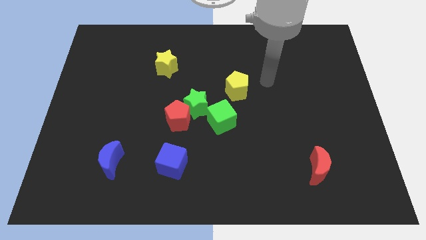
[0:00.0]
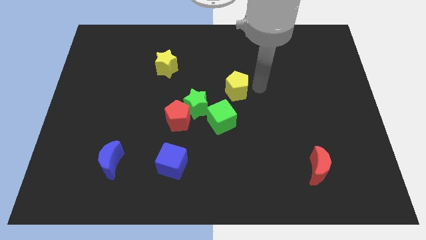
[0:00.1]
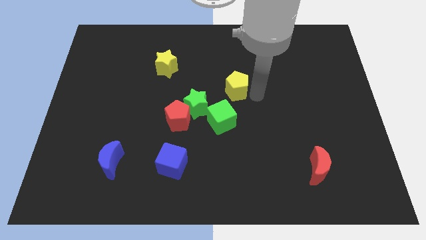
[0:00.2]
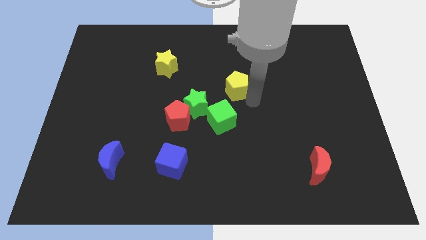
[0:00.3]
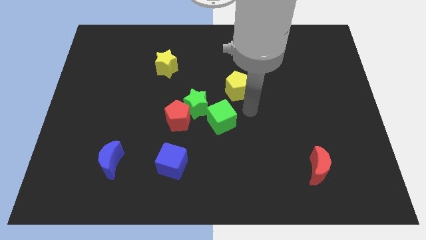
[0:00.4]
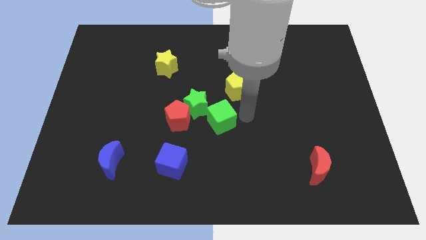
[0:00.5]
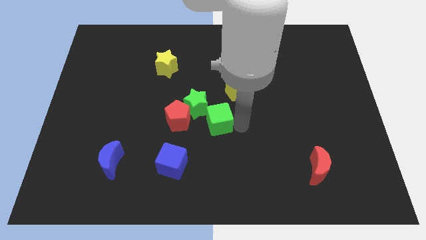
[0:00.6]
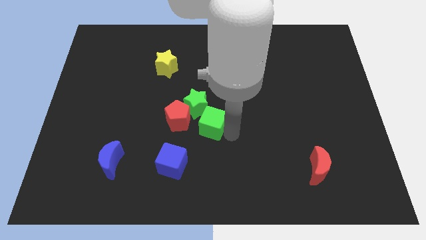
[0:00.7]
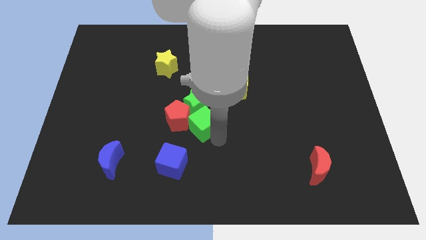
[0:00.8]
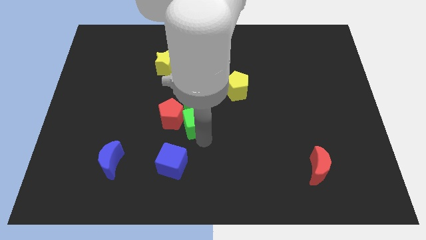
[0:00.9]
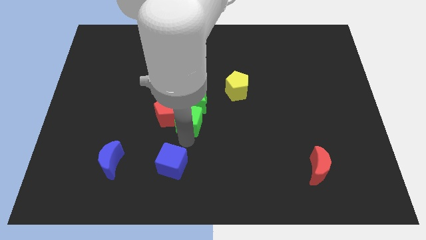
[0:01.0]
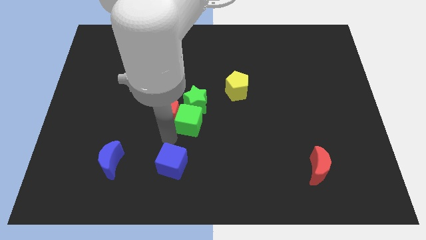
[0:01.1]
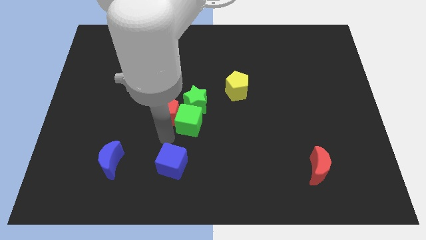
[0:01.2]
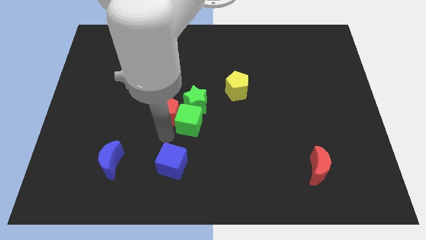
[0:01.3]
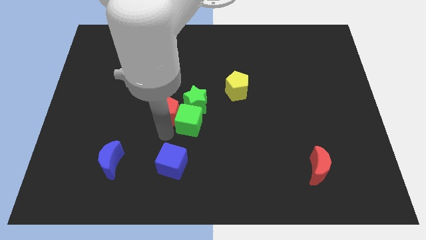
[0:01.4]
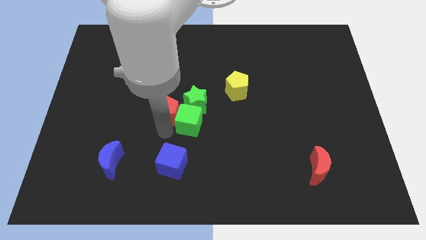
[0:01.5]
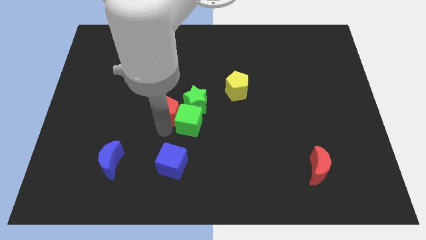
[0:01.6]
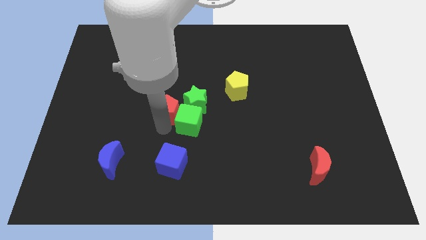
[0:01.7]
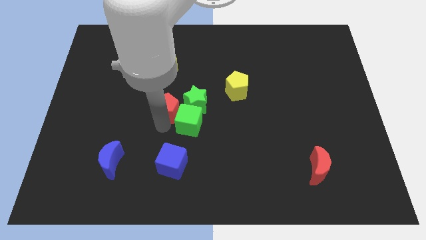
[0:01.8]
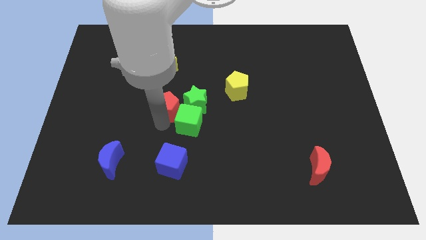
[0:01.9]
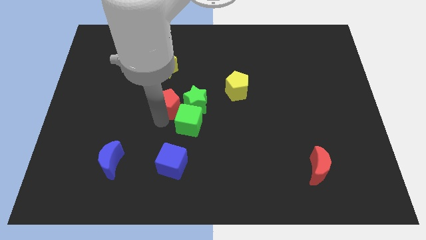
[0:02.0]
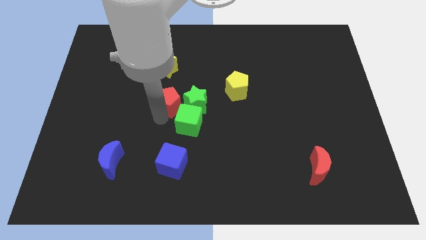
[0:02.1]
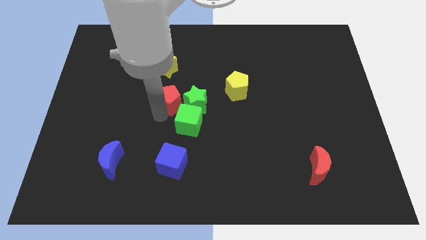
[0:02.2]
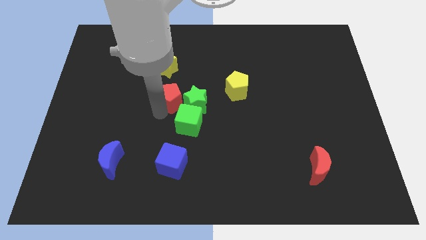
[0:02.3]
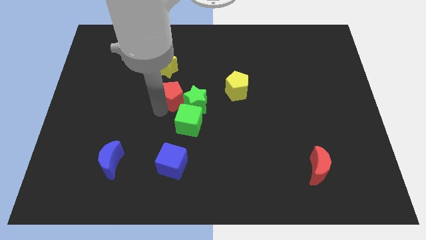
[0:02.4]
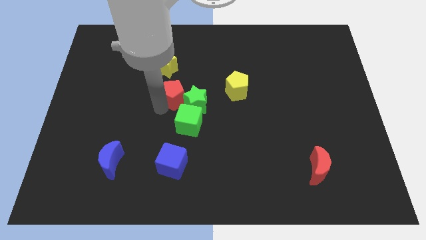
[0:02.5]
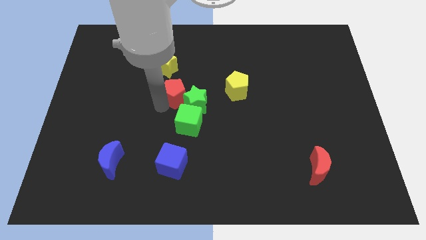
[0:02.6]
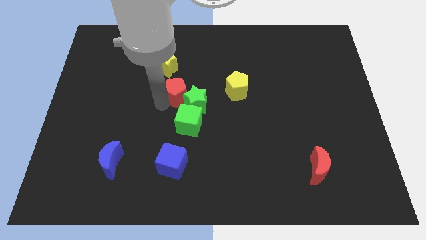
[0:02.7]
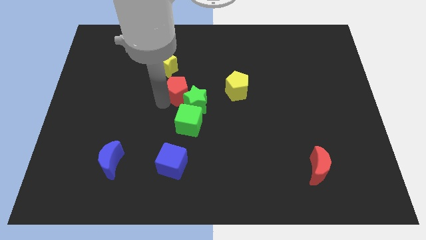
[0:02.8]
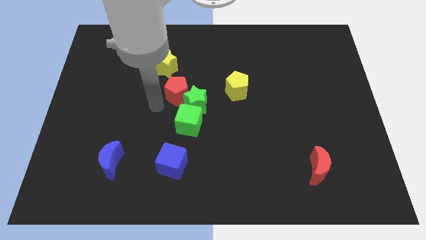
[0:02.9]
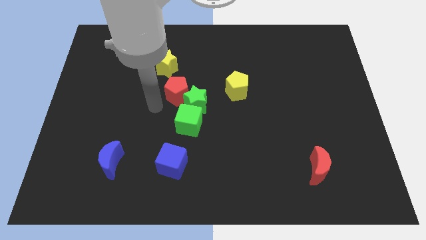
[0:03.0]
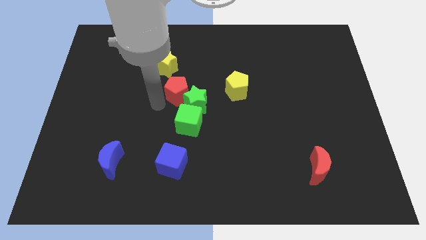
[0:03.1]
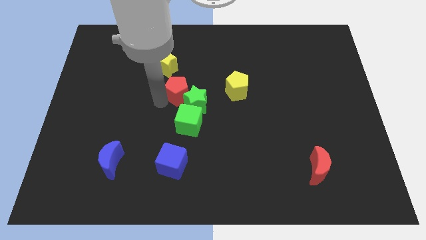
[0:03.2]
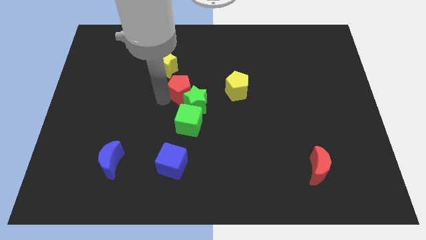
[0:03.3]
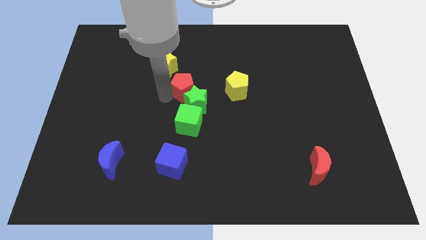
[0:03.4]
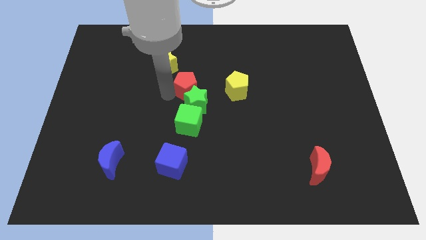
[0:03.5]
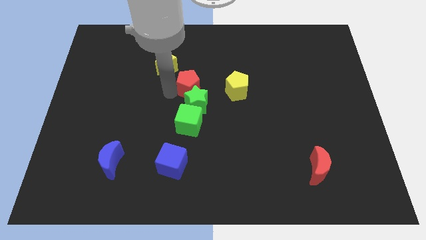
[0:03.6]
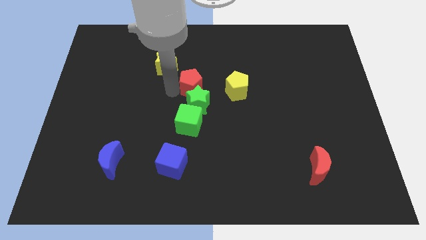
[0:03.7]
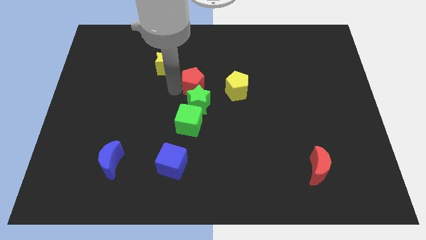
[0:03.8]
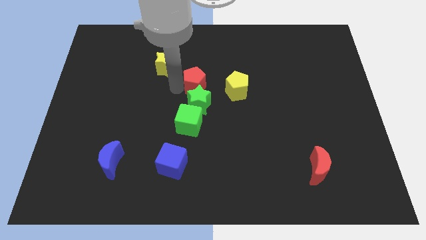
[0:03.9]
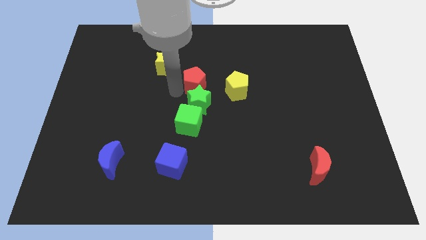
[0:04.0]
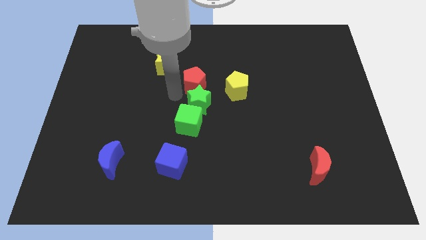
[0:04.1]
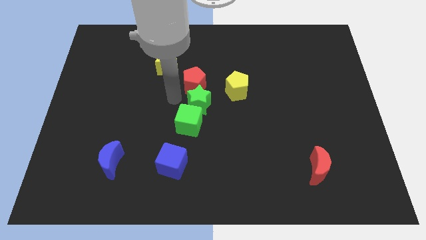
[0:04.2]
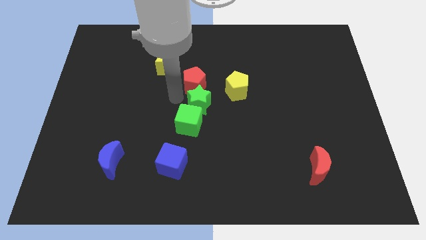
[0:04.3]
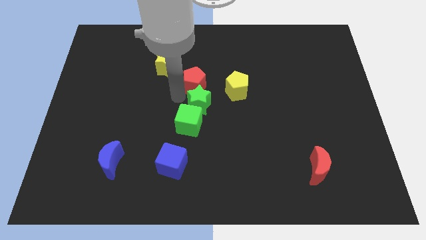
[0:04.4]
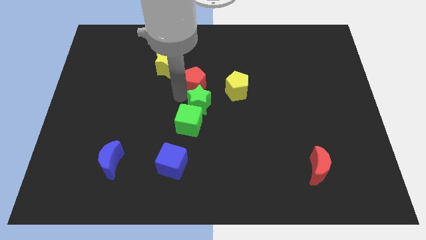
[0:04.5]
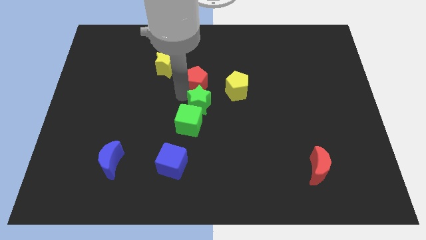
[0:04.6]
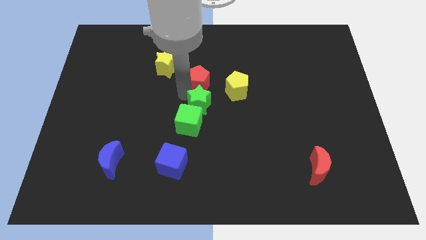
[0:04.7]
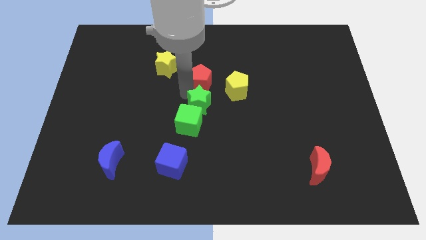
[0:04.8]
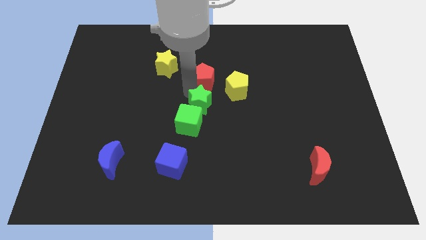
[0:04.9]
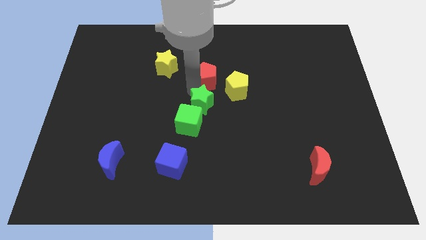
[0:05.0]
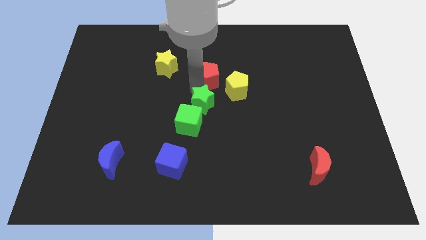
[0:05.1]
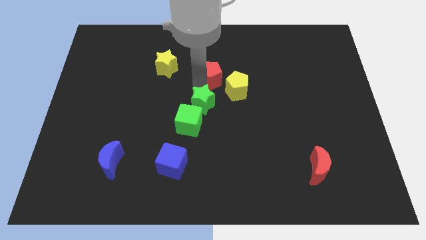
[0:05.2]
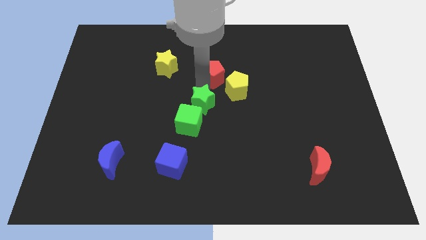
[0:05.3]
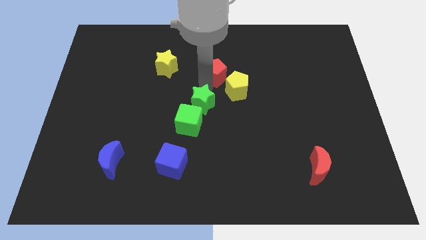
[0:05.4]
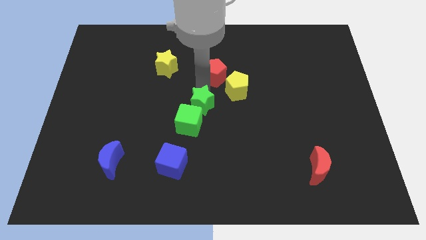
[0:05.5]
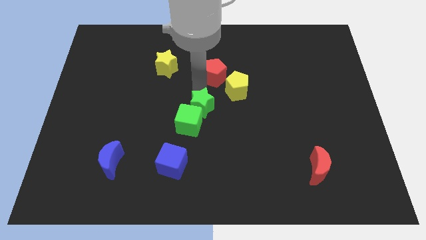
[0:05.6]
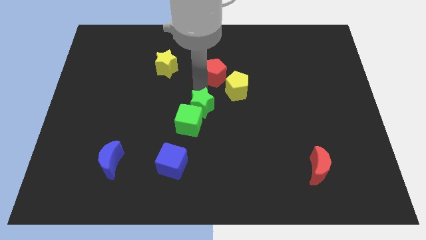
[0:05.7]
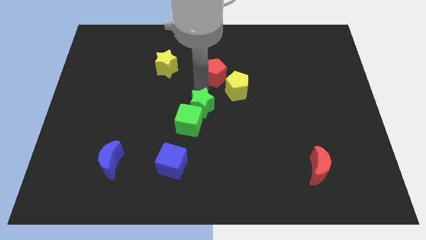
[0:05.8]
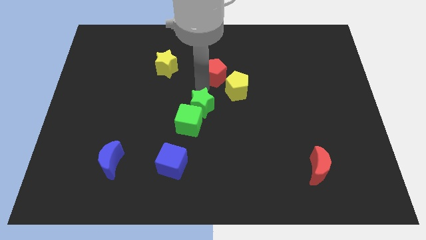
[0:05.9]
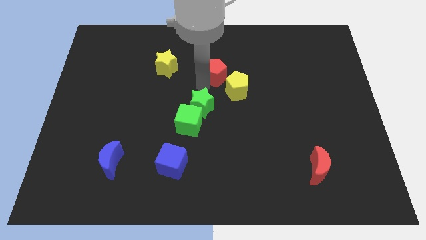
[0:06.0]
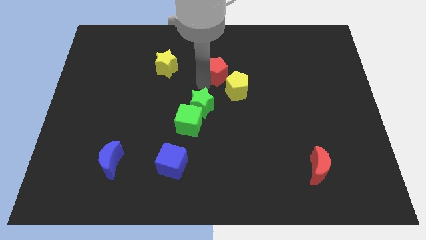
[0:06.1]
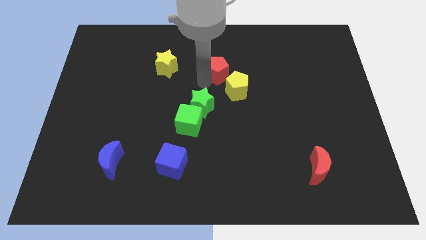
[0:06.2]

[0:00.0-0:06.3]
put the red pentagon to the top of the yellow pentagon

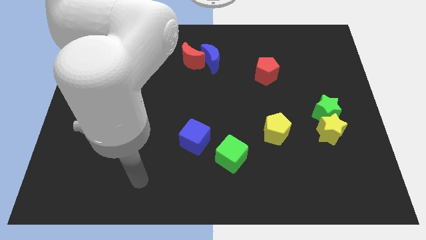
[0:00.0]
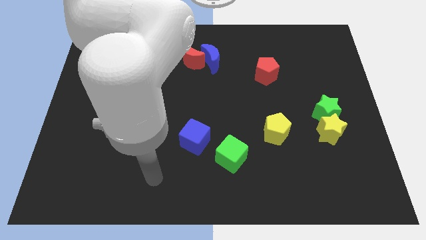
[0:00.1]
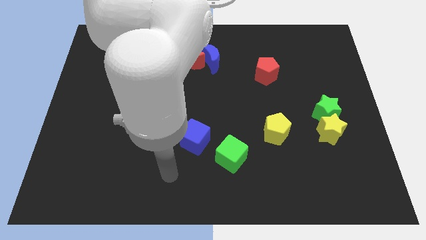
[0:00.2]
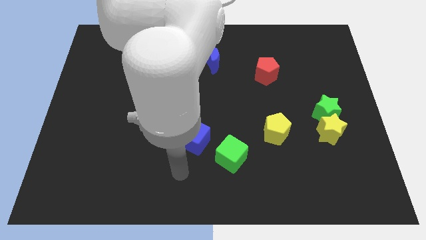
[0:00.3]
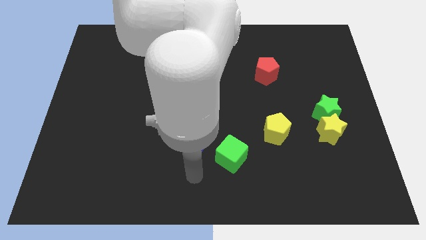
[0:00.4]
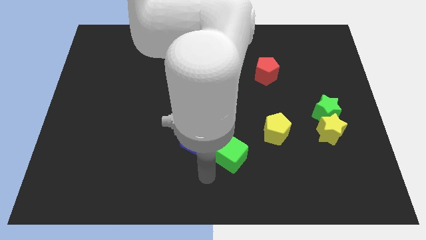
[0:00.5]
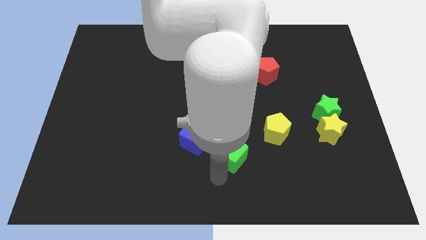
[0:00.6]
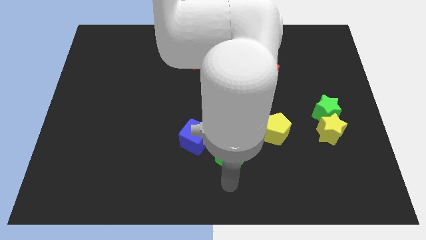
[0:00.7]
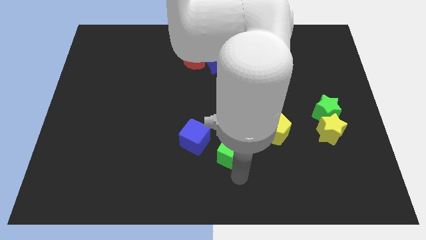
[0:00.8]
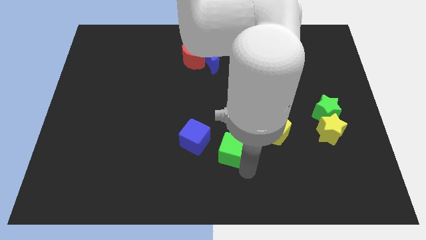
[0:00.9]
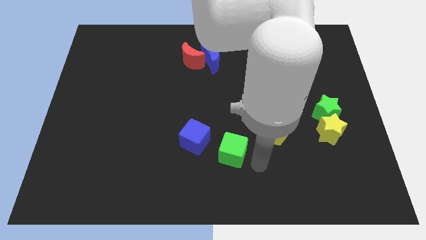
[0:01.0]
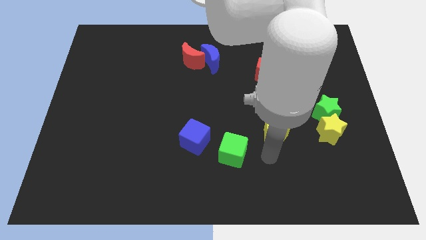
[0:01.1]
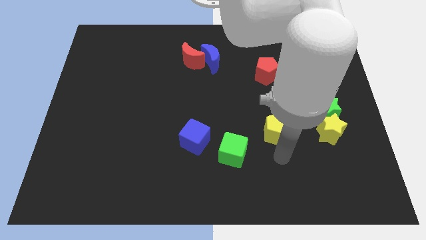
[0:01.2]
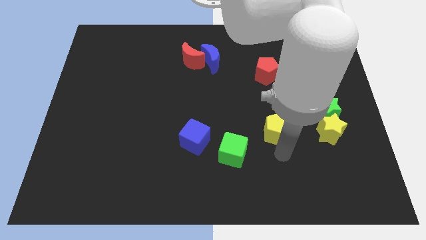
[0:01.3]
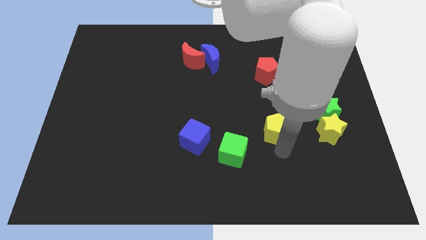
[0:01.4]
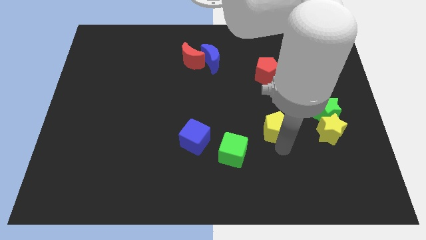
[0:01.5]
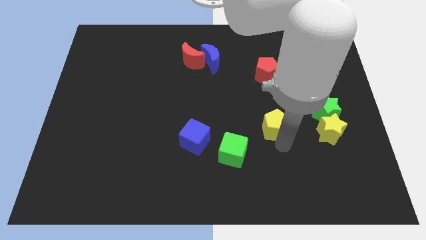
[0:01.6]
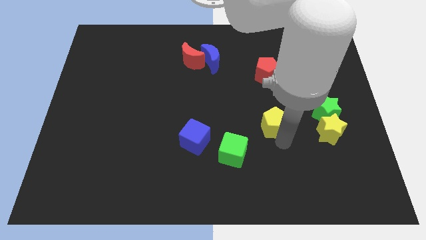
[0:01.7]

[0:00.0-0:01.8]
move the yellow pentagon below the red pentagon
